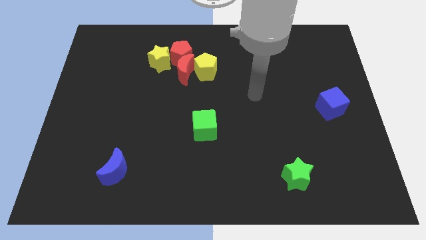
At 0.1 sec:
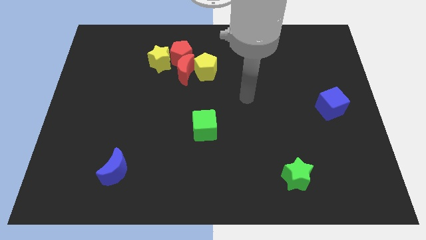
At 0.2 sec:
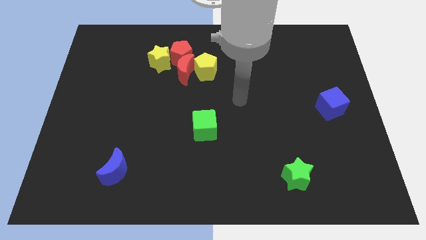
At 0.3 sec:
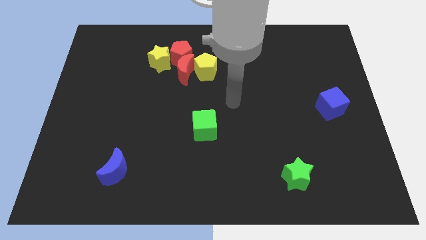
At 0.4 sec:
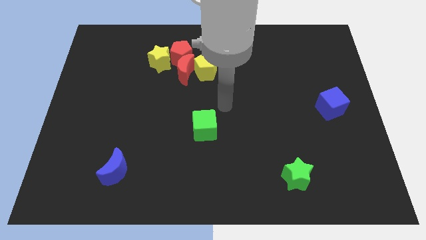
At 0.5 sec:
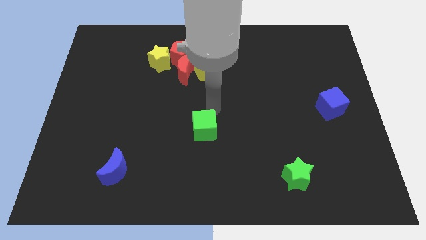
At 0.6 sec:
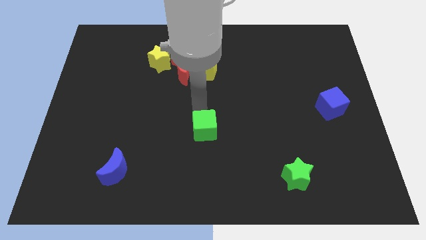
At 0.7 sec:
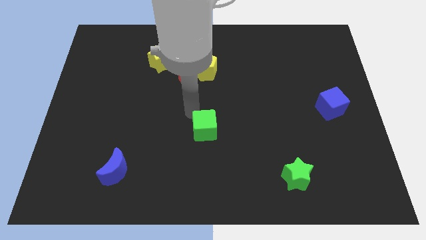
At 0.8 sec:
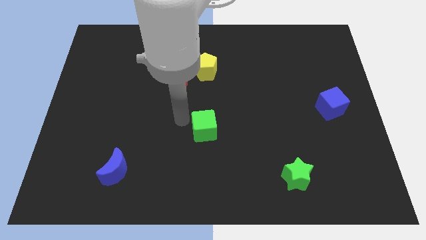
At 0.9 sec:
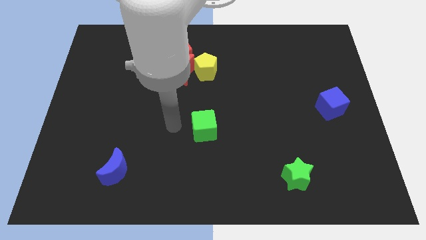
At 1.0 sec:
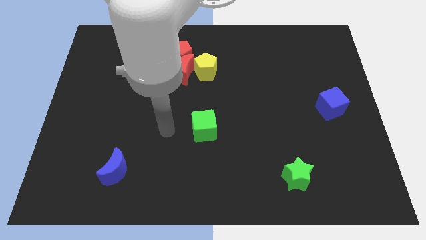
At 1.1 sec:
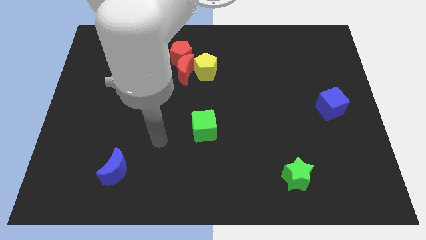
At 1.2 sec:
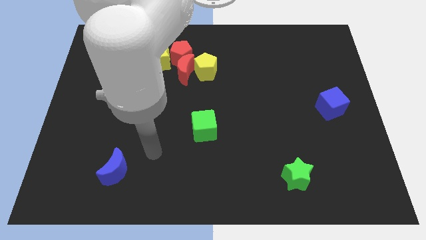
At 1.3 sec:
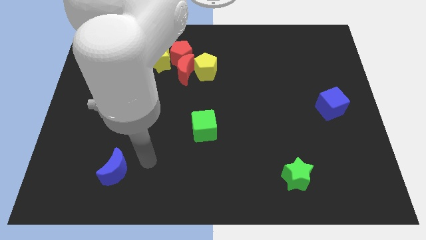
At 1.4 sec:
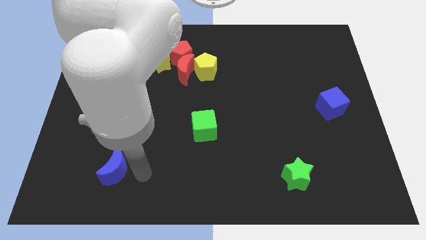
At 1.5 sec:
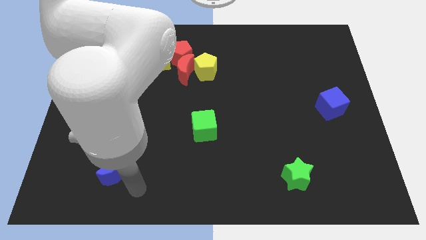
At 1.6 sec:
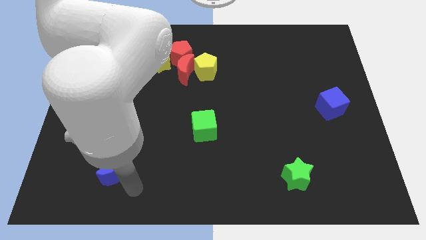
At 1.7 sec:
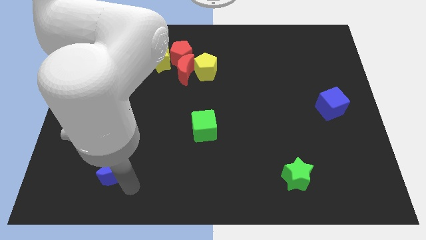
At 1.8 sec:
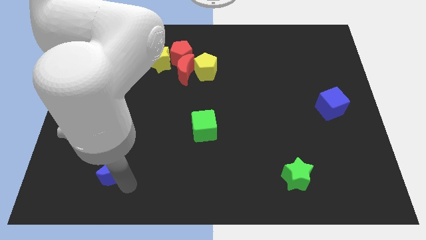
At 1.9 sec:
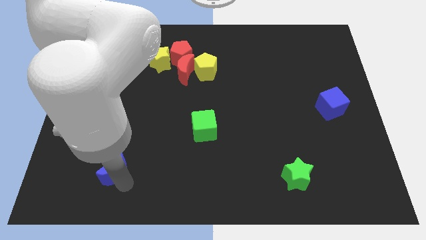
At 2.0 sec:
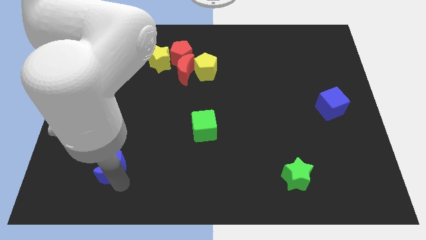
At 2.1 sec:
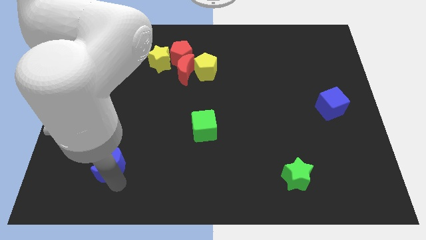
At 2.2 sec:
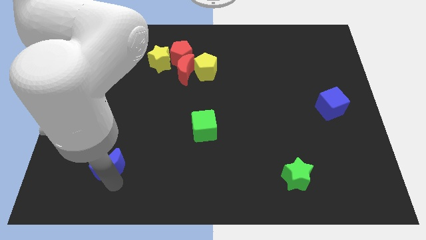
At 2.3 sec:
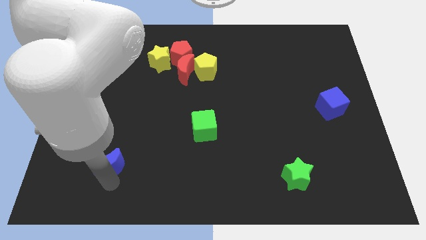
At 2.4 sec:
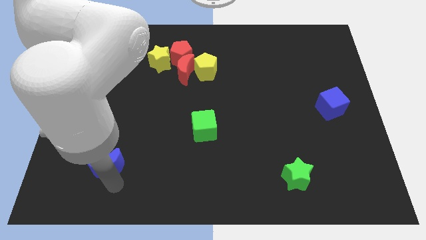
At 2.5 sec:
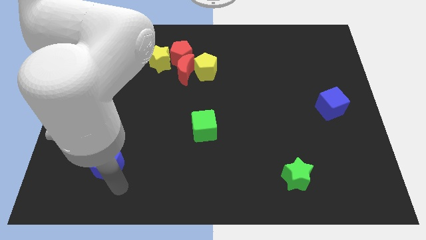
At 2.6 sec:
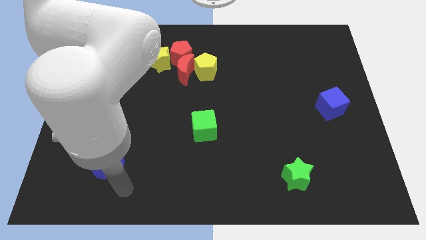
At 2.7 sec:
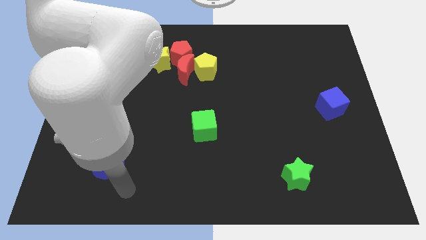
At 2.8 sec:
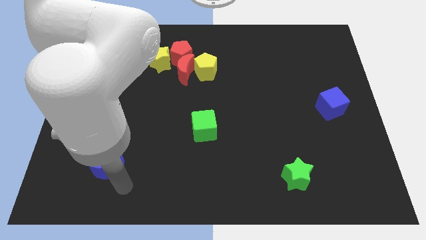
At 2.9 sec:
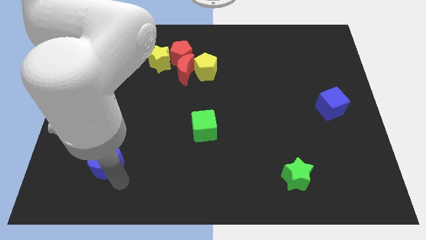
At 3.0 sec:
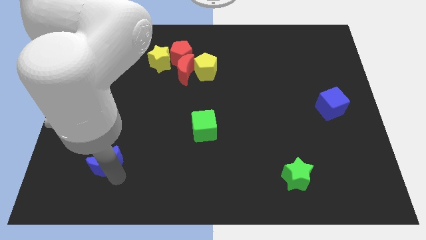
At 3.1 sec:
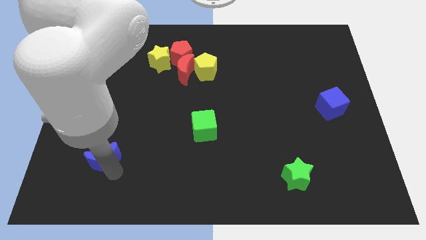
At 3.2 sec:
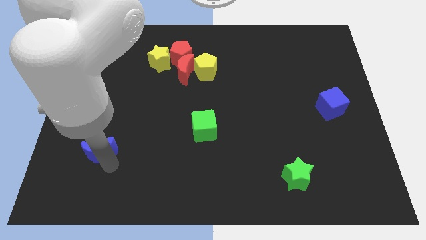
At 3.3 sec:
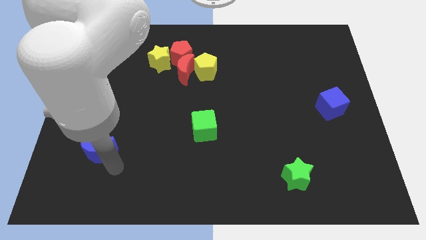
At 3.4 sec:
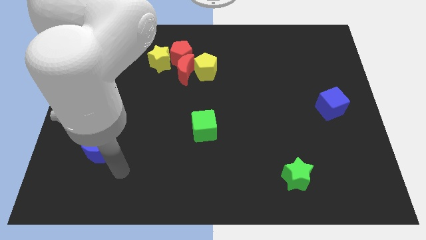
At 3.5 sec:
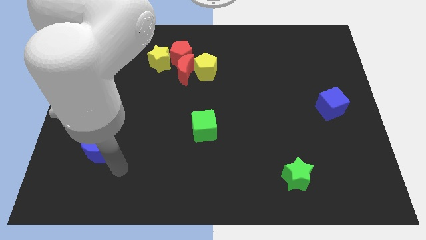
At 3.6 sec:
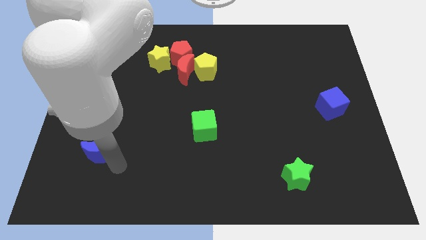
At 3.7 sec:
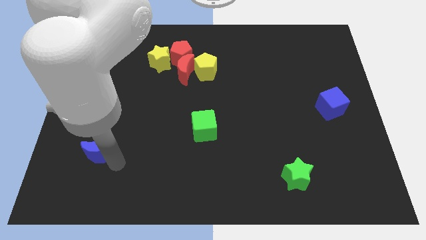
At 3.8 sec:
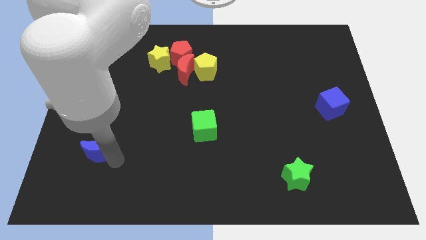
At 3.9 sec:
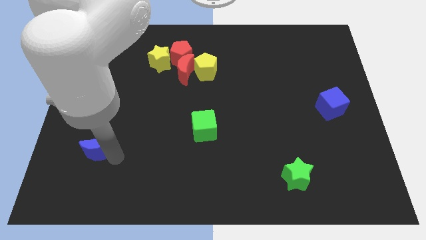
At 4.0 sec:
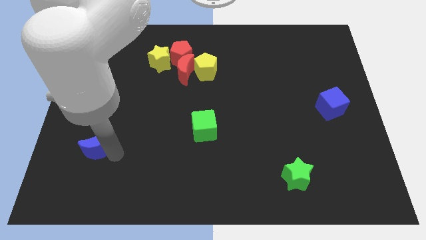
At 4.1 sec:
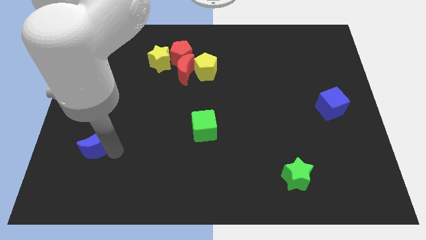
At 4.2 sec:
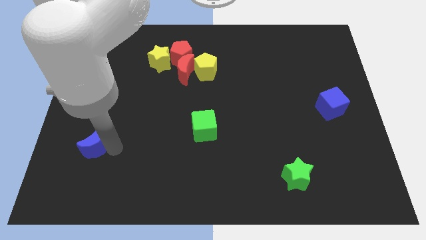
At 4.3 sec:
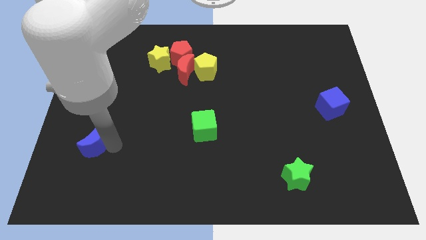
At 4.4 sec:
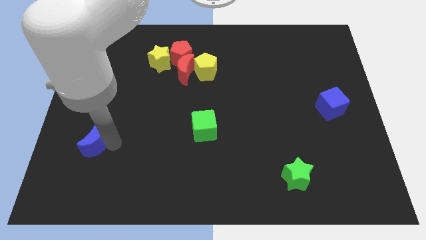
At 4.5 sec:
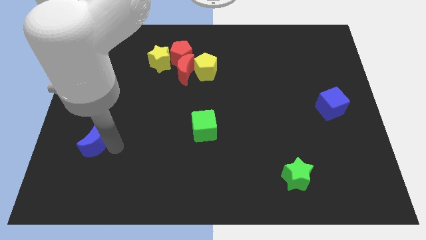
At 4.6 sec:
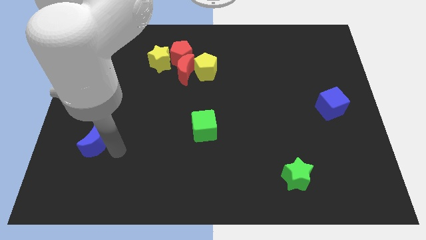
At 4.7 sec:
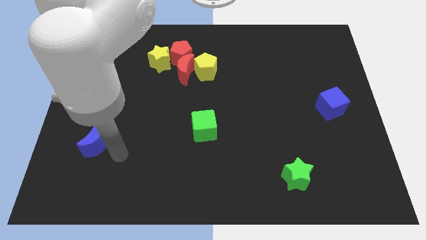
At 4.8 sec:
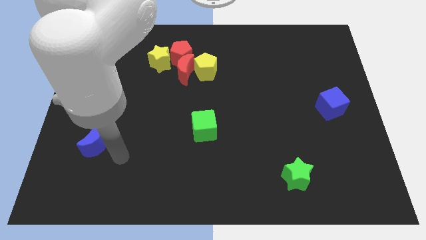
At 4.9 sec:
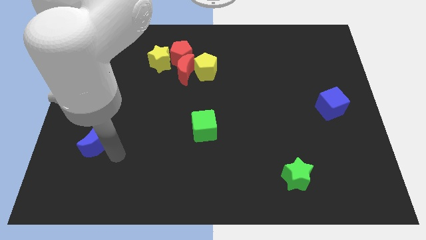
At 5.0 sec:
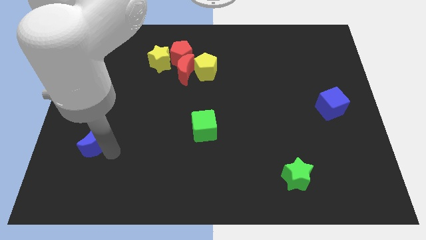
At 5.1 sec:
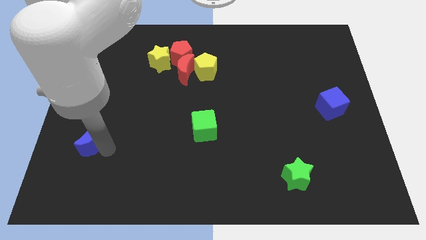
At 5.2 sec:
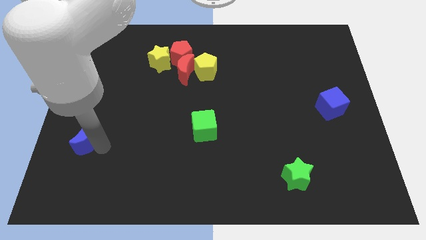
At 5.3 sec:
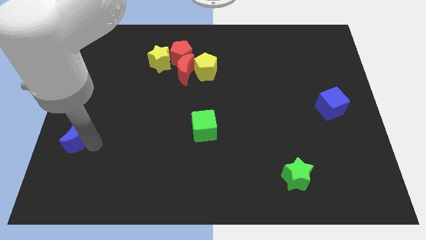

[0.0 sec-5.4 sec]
move the blue moon to the center left

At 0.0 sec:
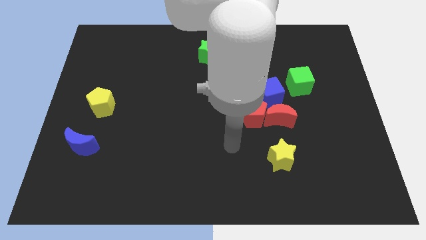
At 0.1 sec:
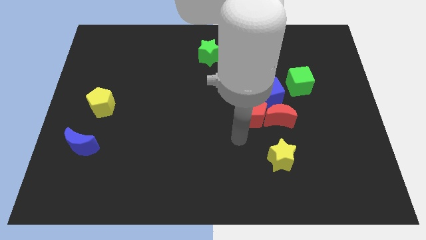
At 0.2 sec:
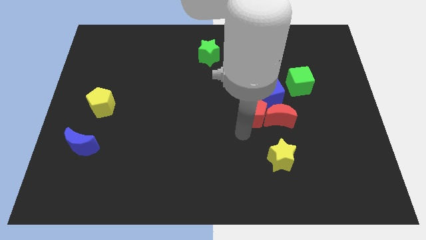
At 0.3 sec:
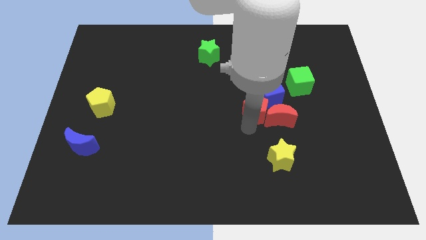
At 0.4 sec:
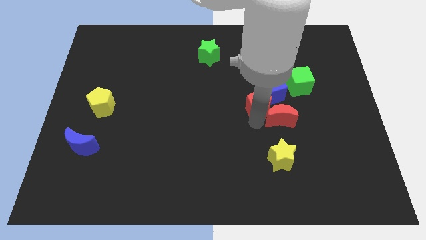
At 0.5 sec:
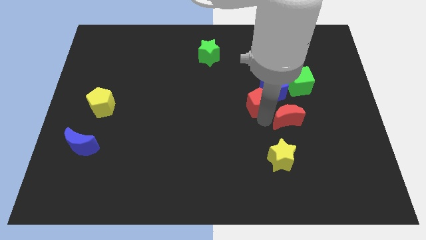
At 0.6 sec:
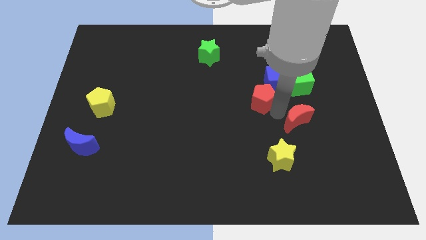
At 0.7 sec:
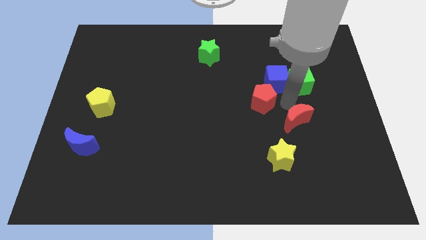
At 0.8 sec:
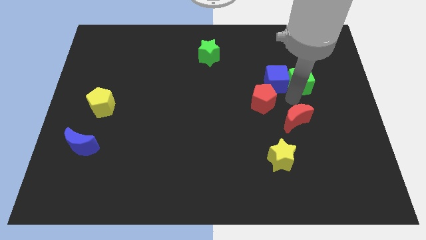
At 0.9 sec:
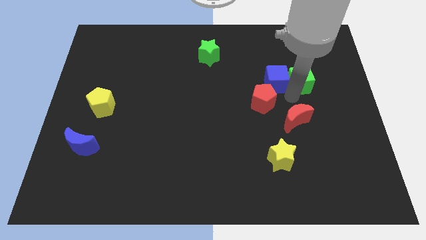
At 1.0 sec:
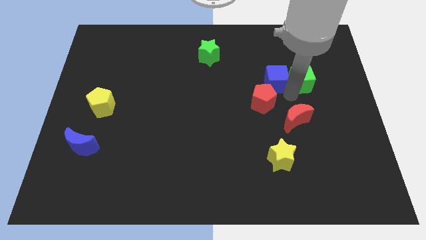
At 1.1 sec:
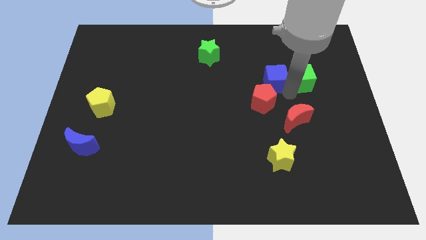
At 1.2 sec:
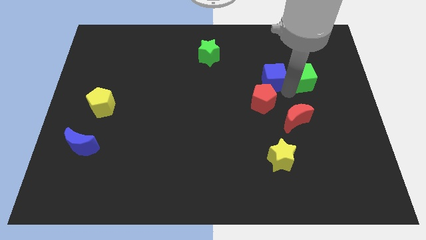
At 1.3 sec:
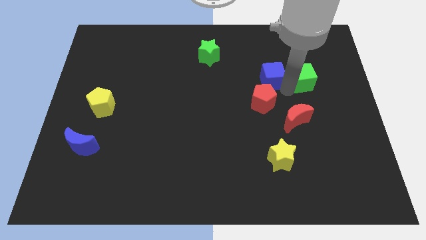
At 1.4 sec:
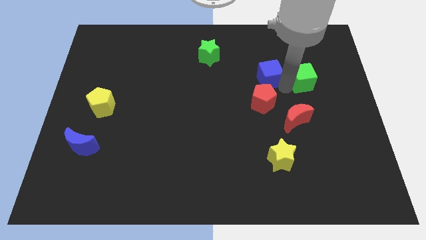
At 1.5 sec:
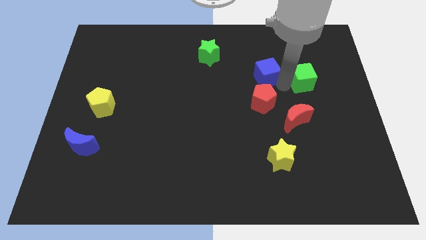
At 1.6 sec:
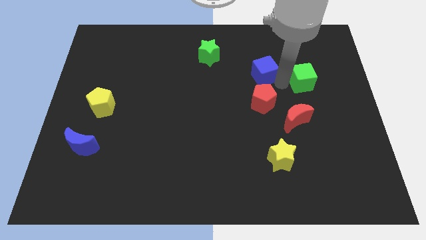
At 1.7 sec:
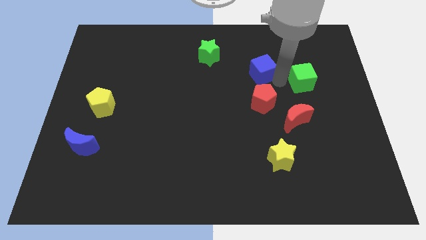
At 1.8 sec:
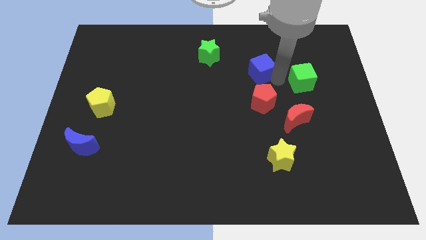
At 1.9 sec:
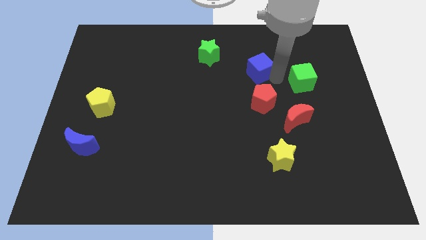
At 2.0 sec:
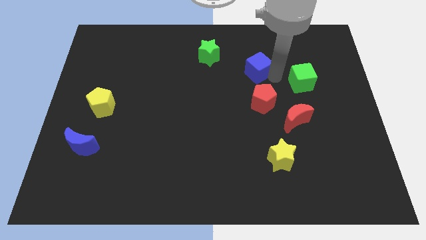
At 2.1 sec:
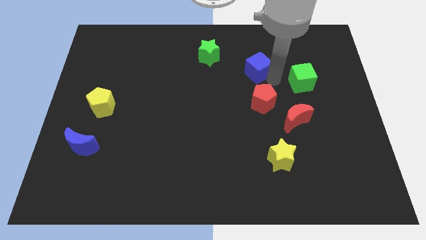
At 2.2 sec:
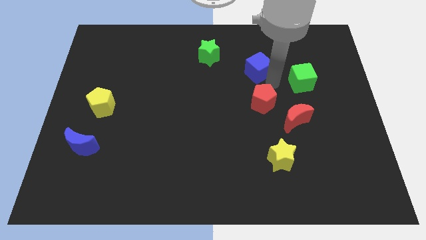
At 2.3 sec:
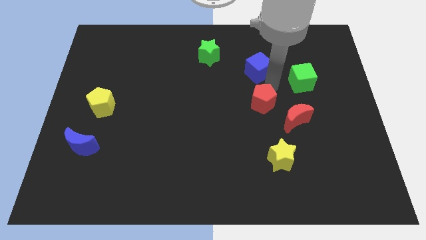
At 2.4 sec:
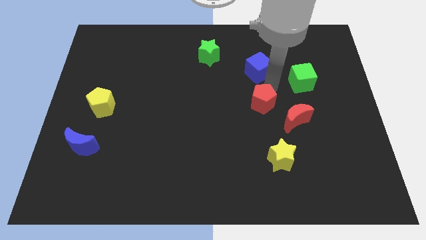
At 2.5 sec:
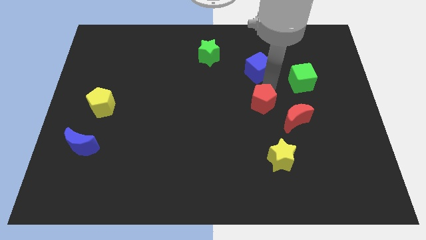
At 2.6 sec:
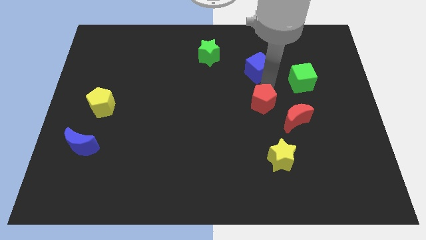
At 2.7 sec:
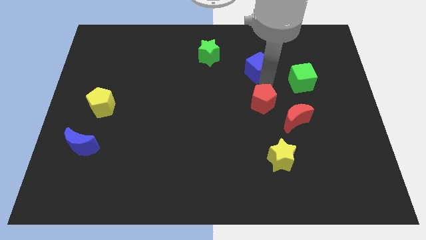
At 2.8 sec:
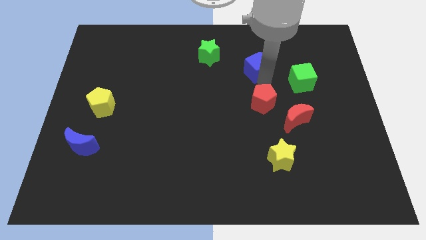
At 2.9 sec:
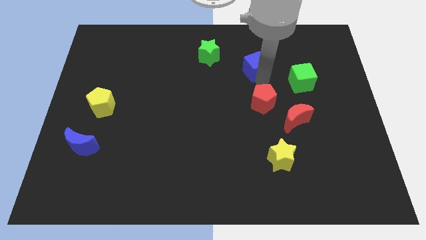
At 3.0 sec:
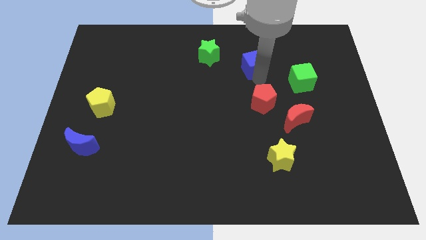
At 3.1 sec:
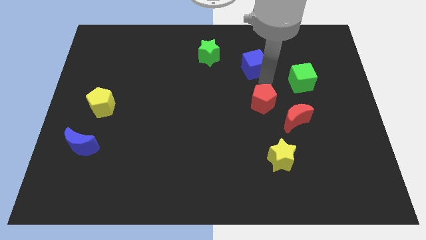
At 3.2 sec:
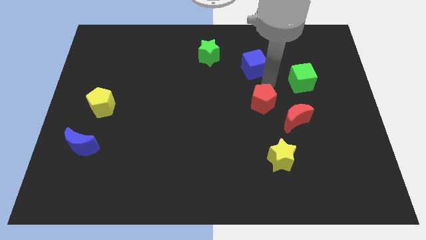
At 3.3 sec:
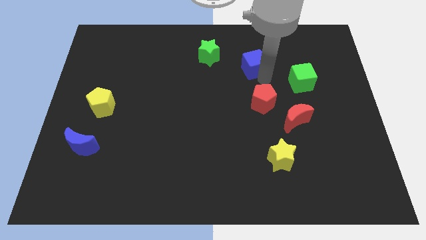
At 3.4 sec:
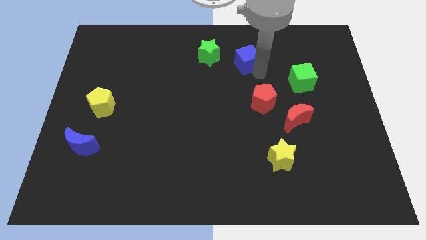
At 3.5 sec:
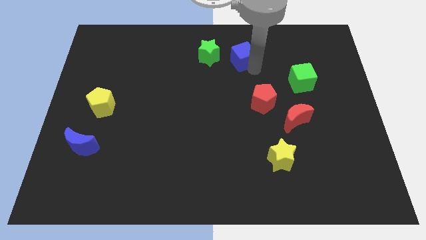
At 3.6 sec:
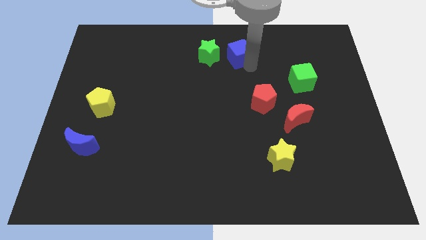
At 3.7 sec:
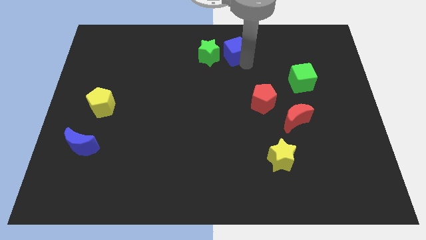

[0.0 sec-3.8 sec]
slide the blue cube to the top
